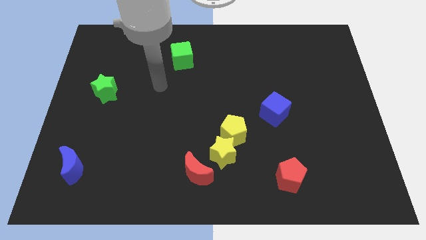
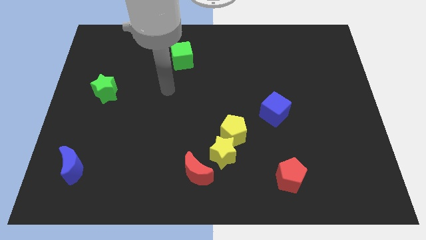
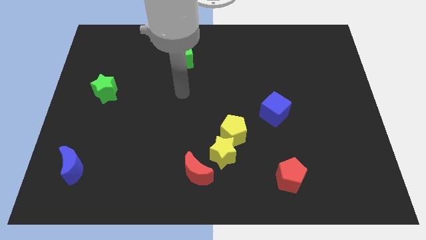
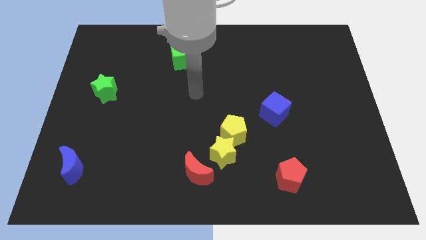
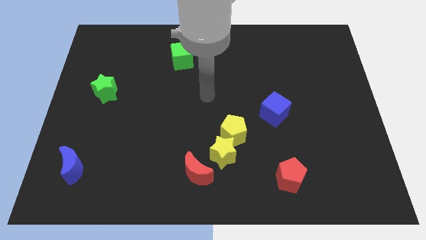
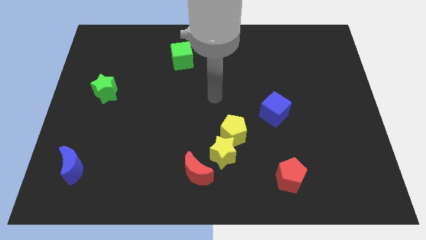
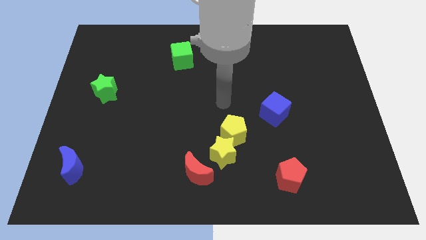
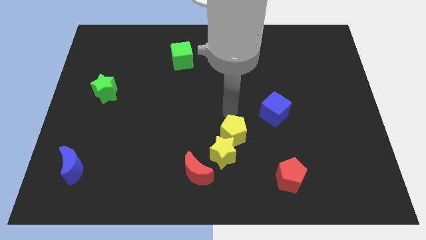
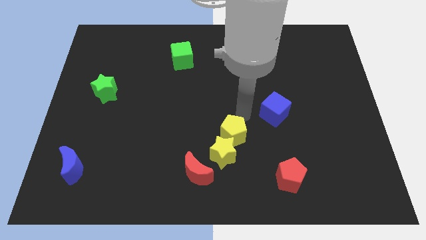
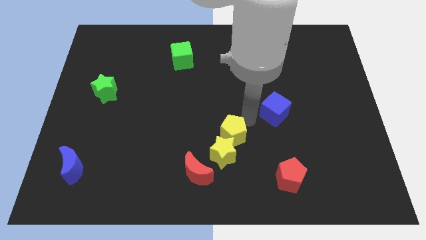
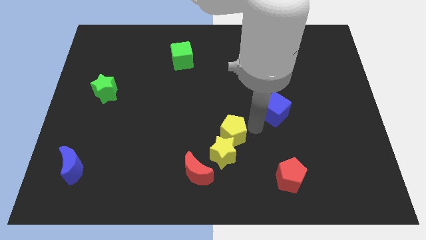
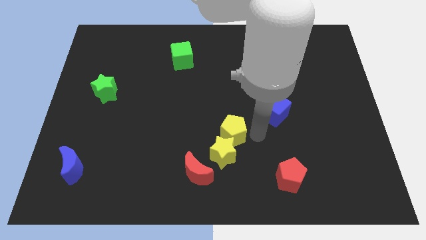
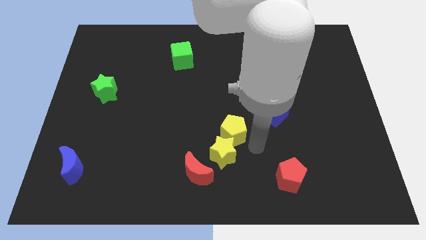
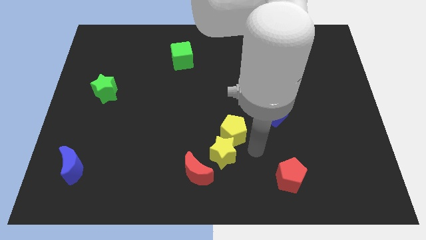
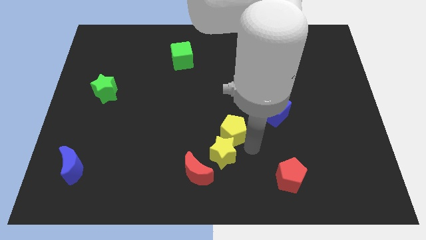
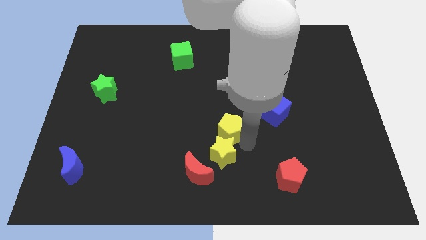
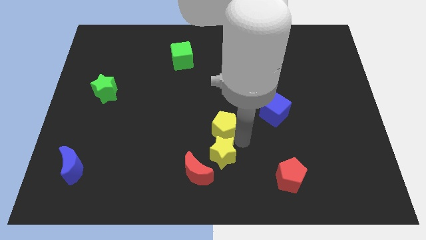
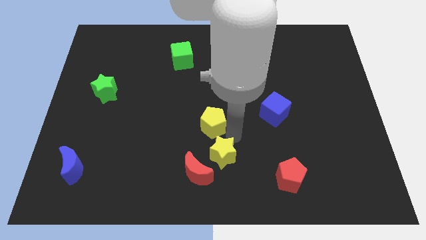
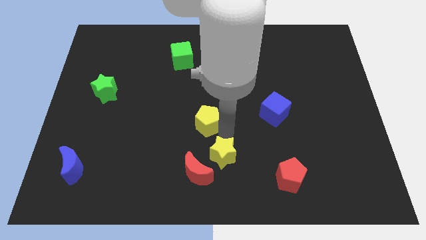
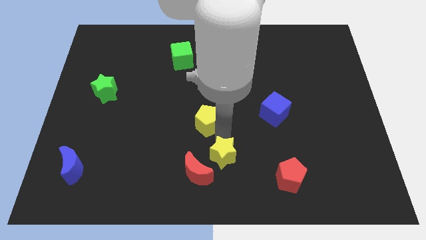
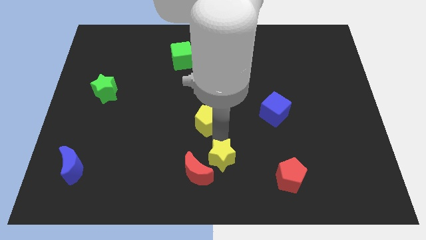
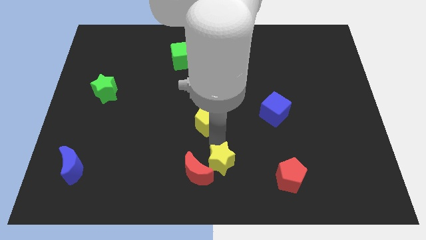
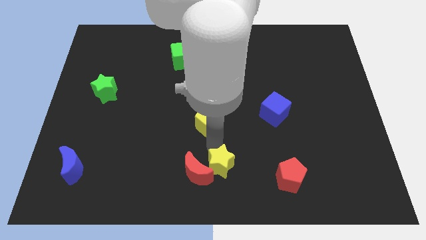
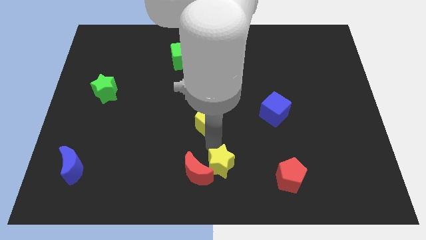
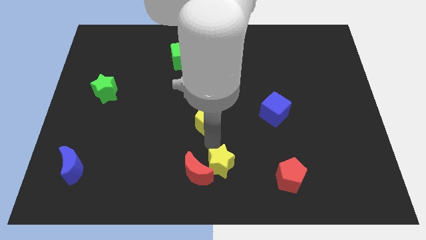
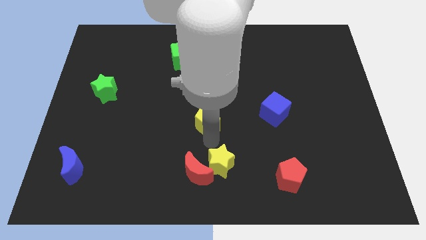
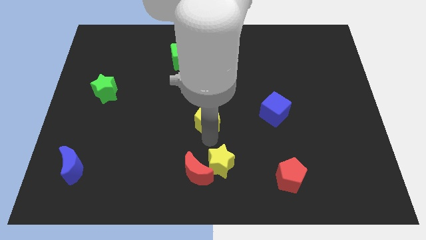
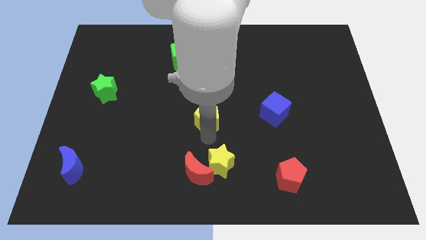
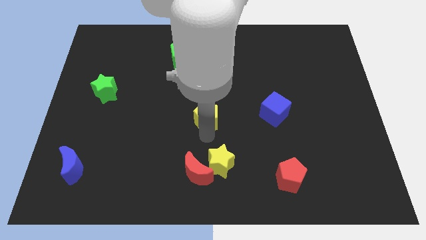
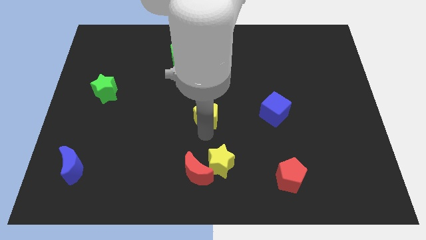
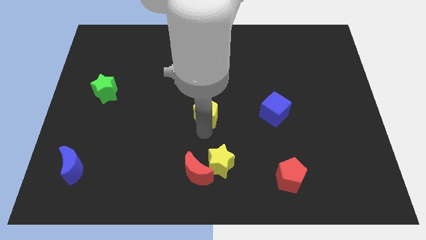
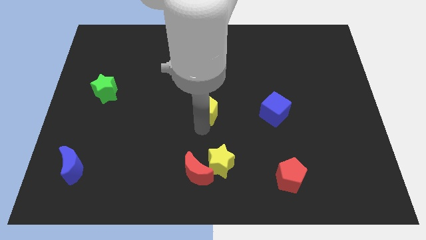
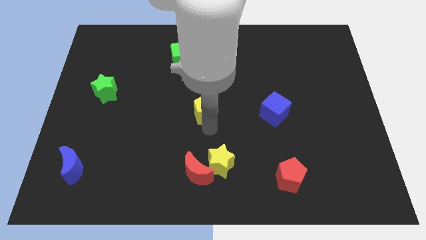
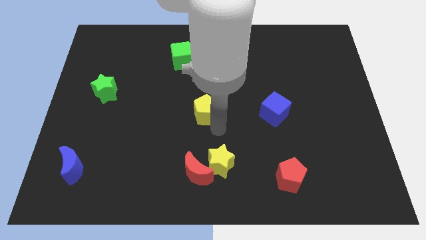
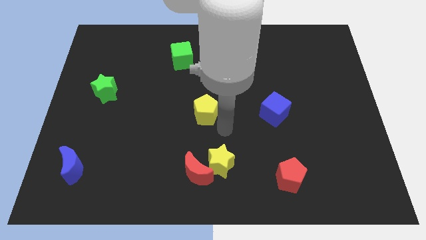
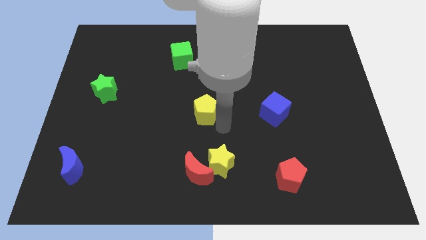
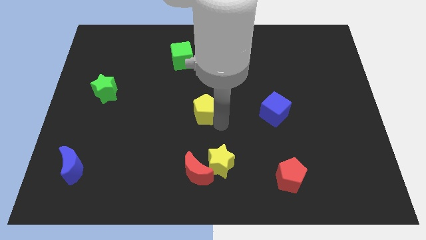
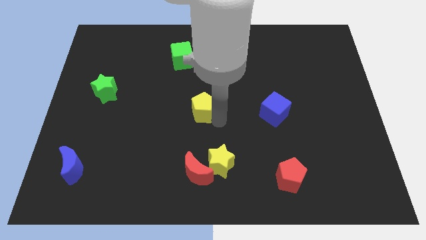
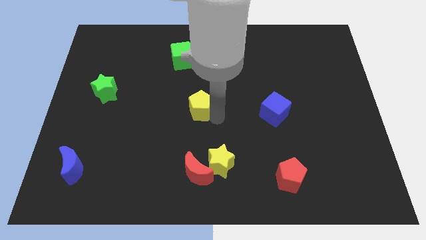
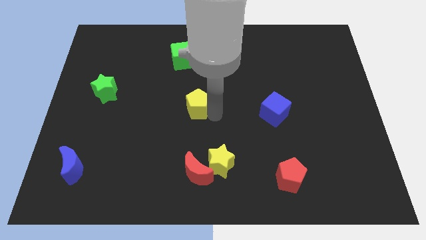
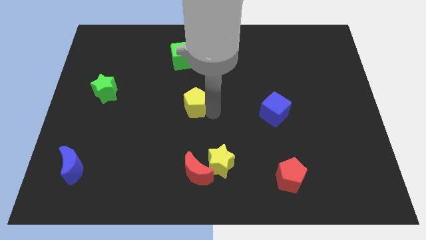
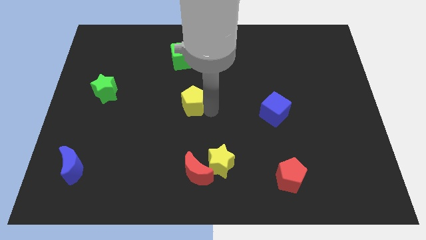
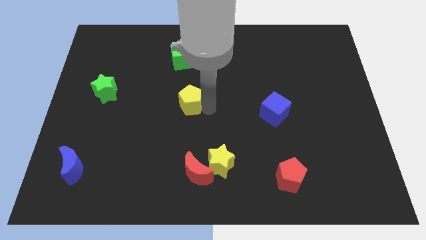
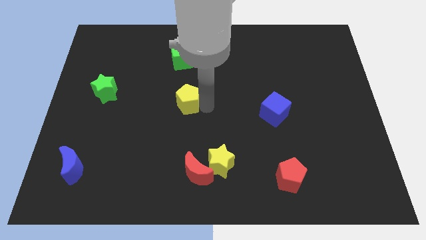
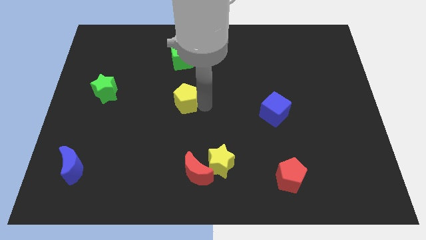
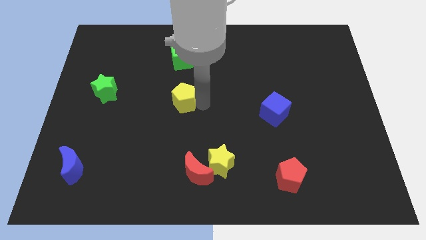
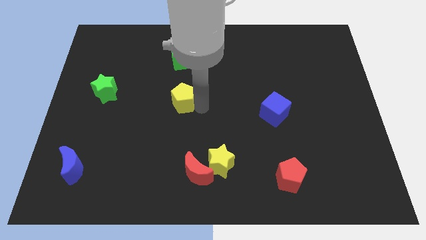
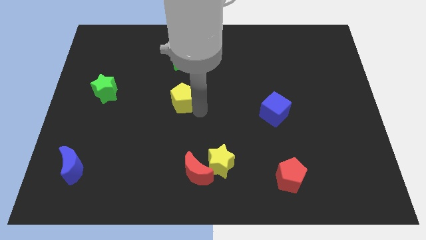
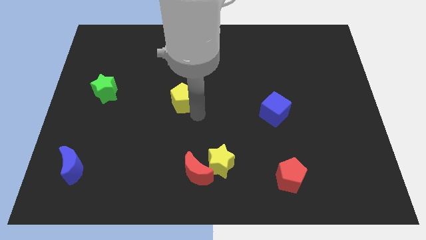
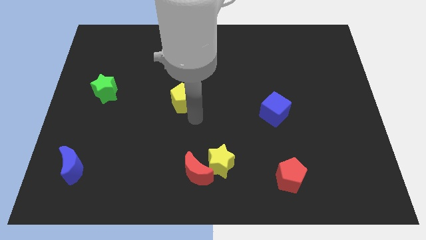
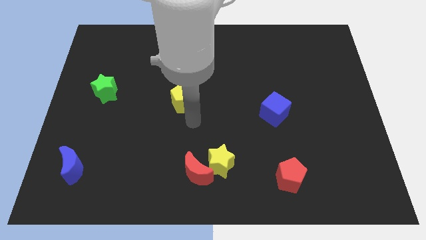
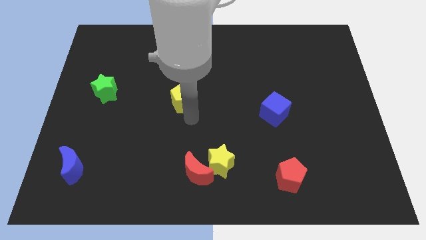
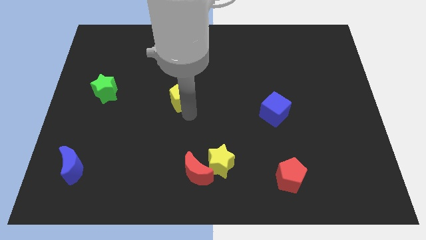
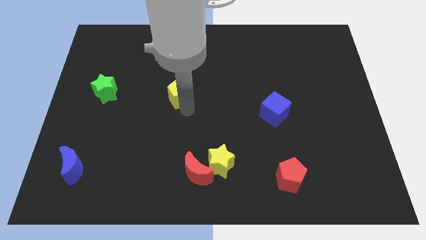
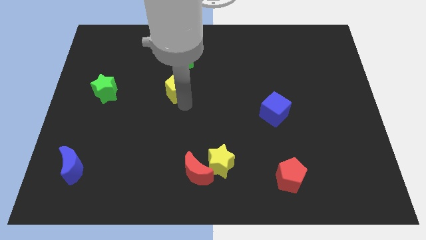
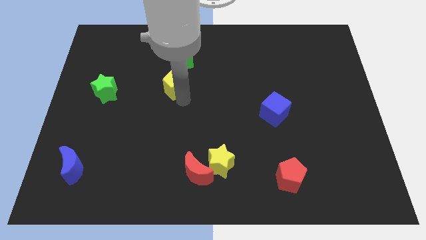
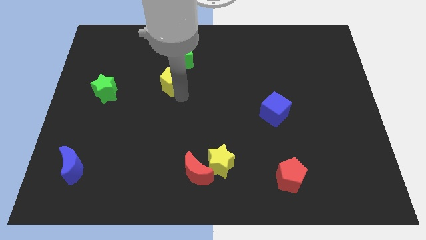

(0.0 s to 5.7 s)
slide the yellow pentagon up and to the left

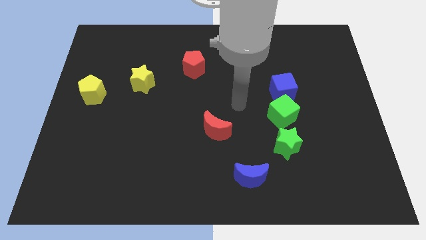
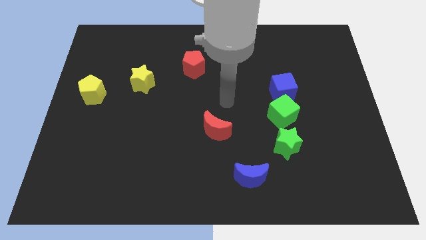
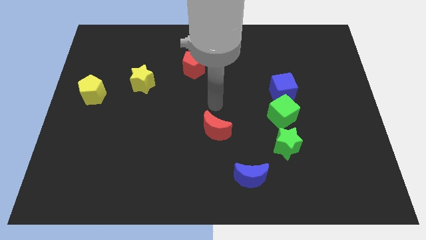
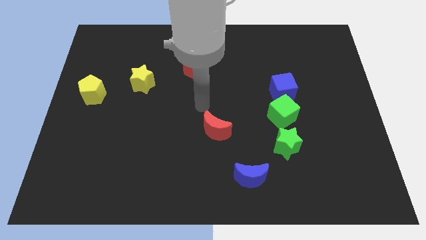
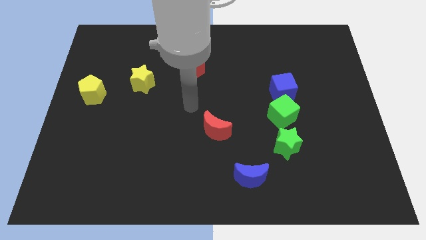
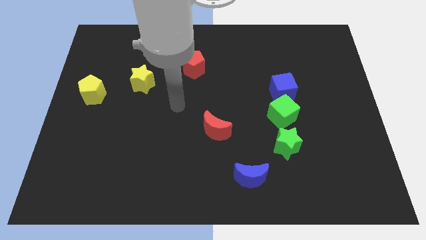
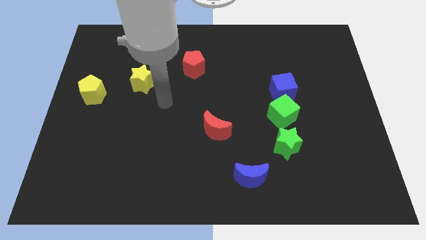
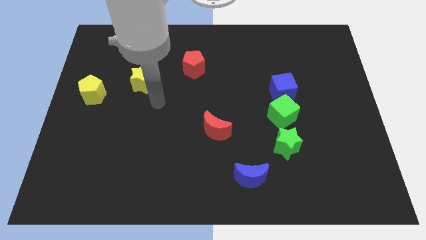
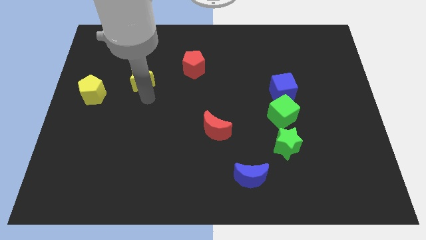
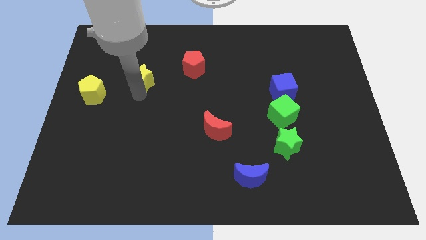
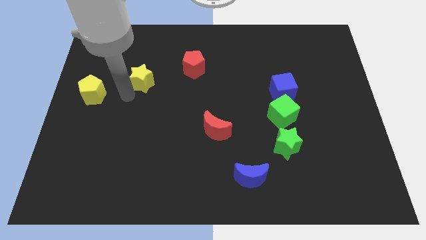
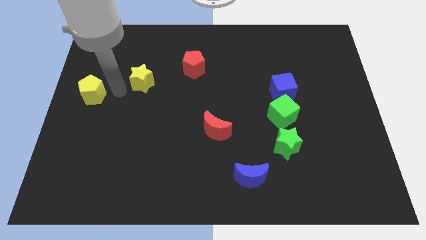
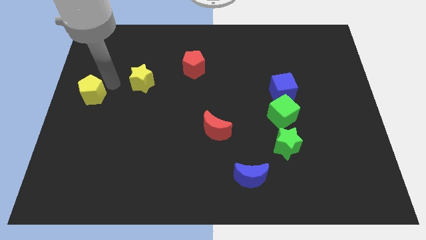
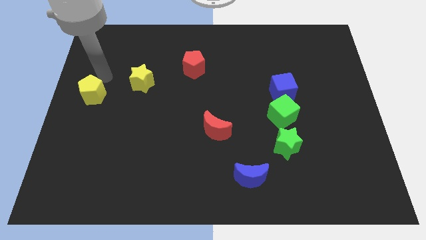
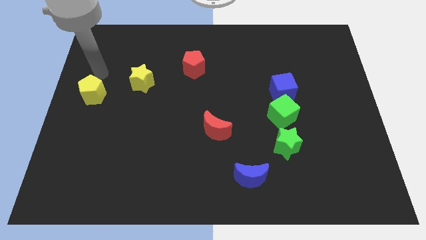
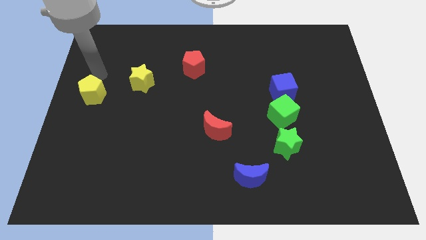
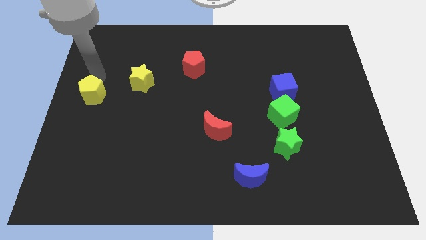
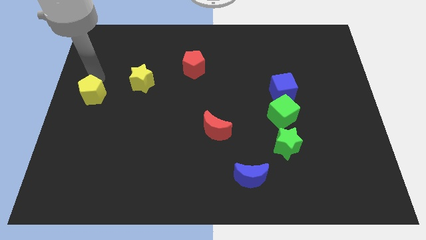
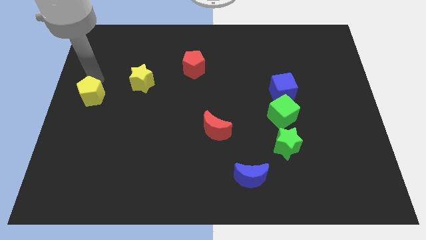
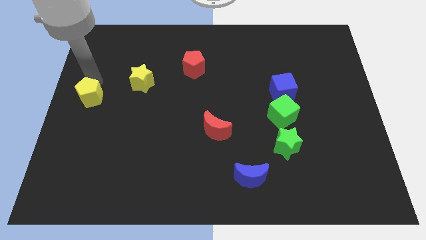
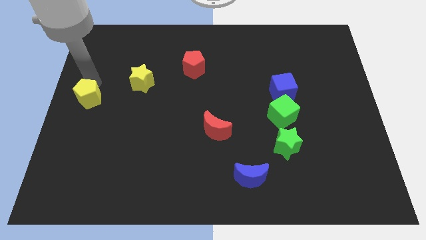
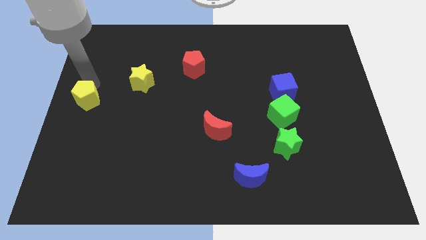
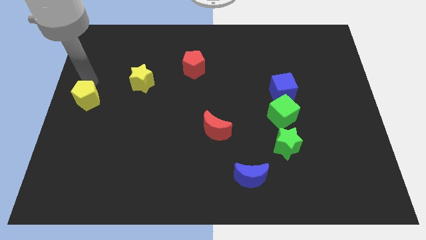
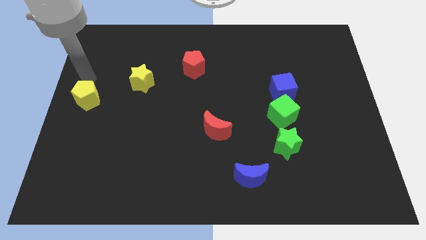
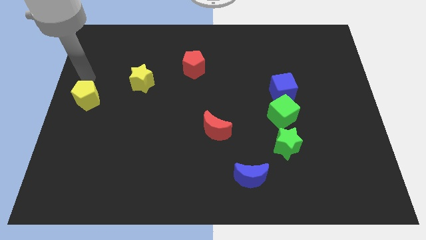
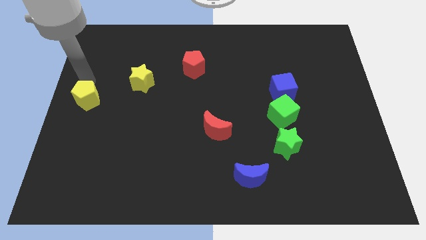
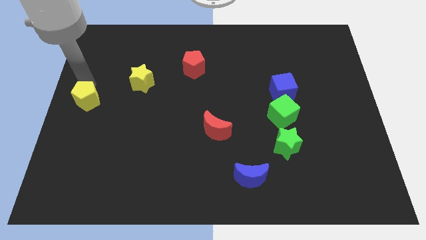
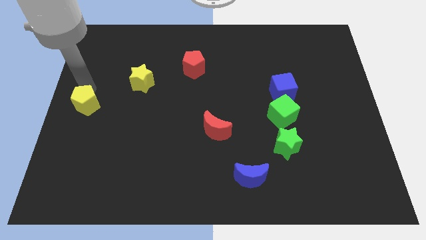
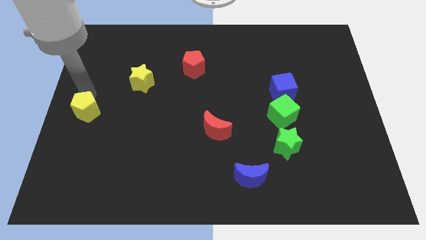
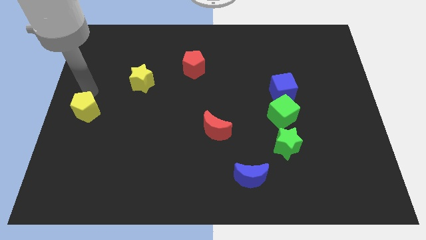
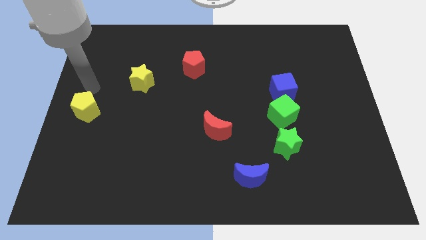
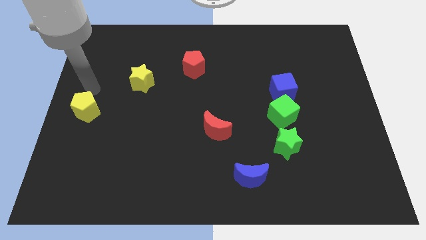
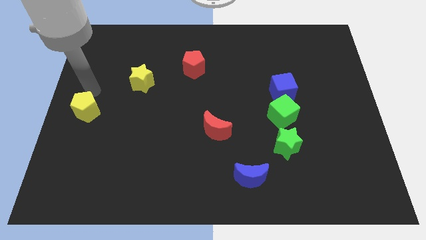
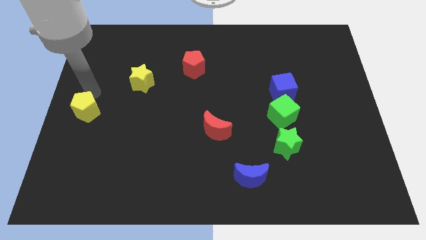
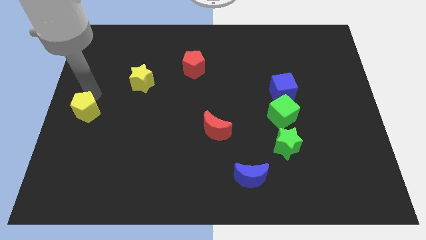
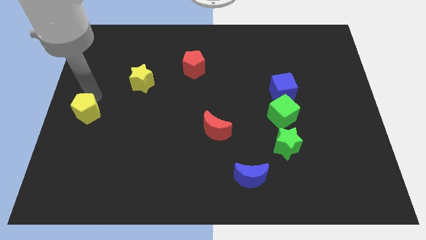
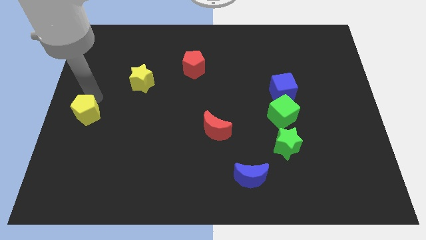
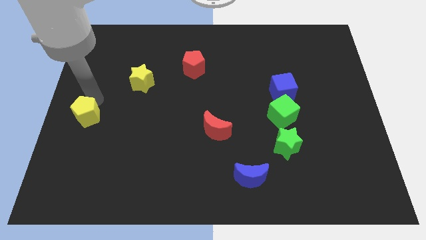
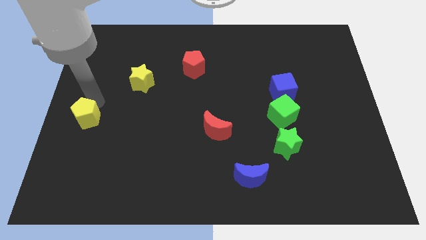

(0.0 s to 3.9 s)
push the yellow pentagon slightly downwards
